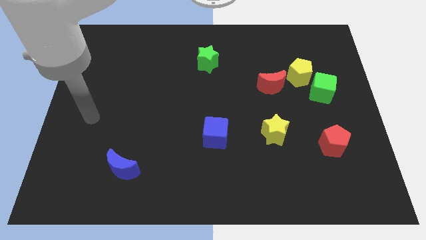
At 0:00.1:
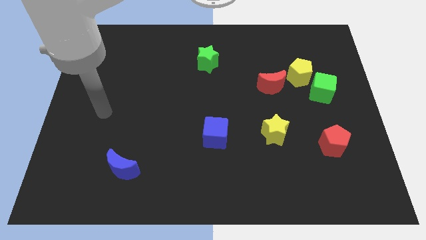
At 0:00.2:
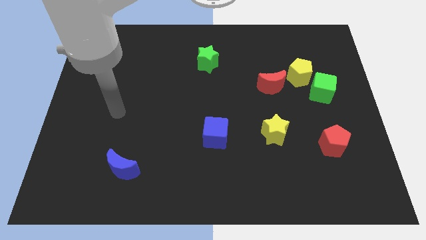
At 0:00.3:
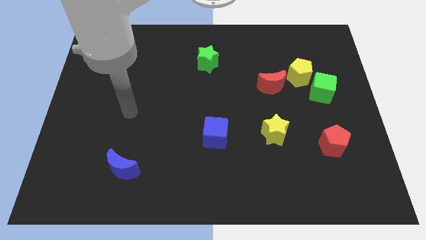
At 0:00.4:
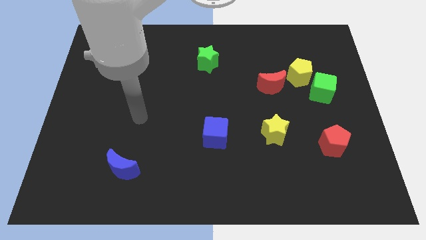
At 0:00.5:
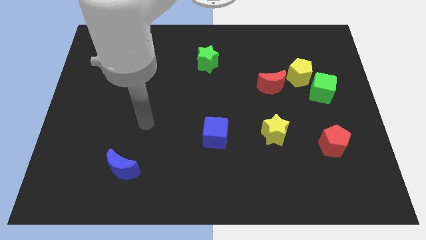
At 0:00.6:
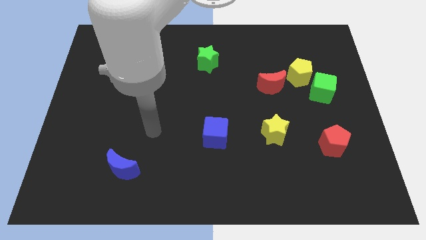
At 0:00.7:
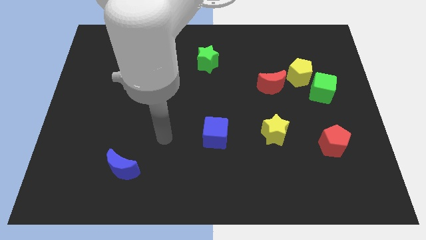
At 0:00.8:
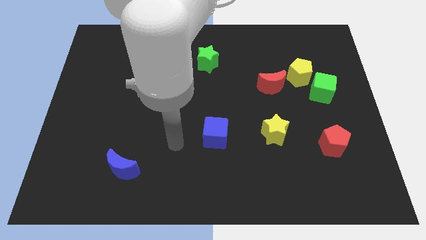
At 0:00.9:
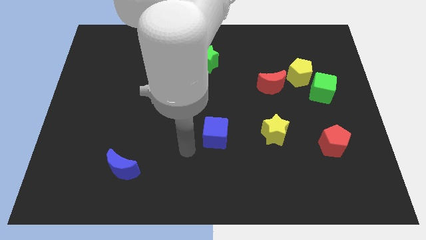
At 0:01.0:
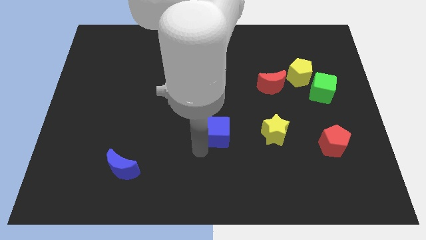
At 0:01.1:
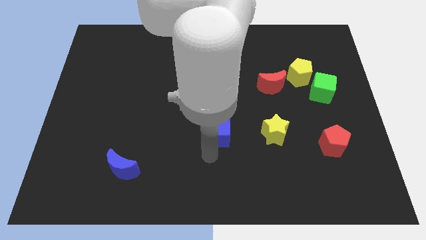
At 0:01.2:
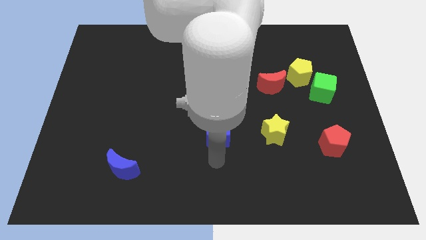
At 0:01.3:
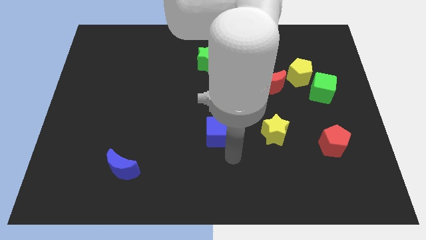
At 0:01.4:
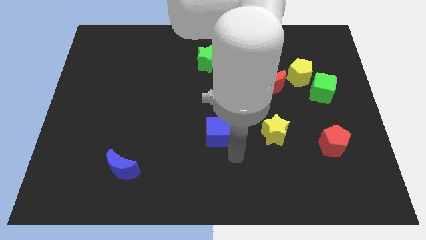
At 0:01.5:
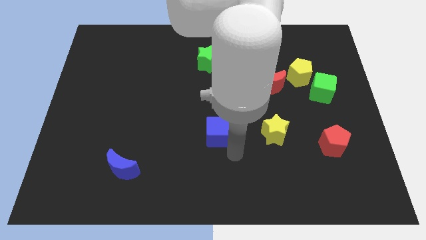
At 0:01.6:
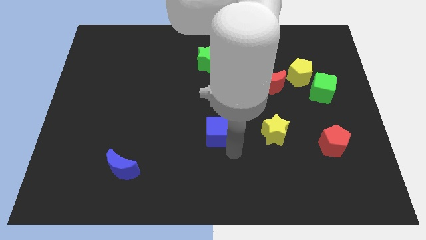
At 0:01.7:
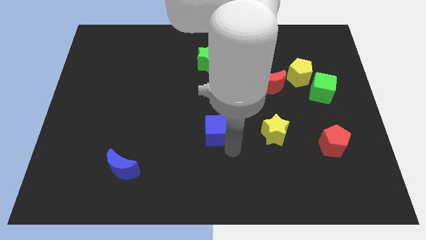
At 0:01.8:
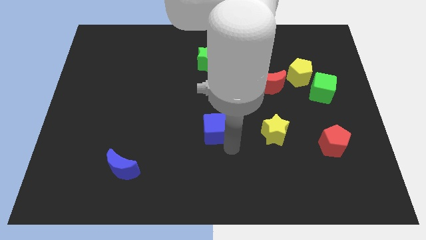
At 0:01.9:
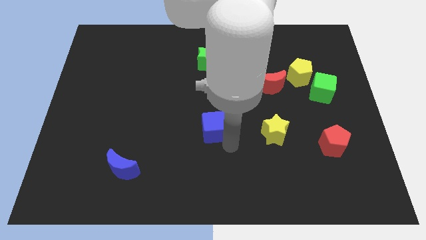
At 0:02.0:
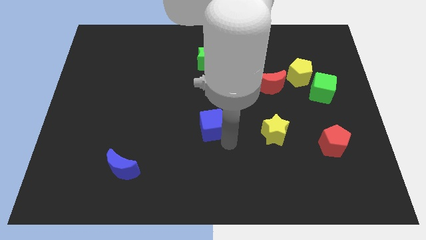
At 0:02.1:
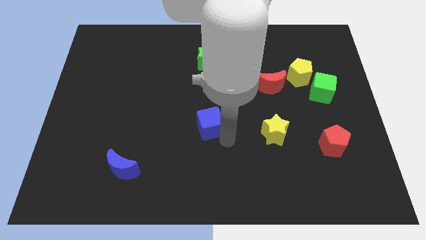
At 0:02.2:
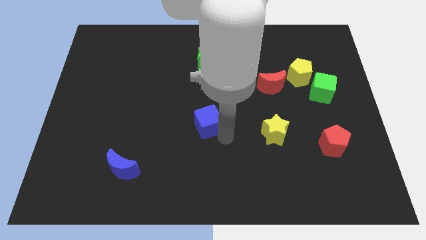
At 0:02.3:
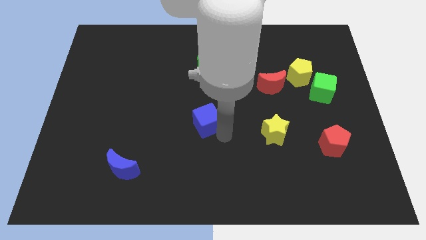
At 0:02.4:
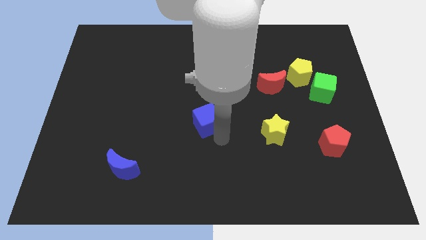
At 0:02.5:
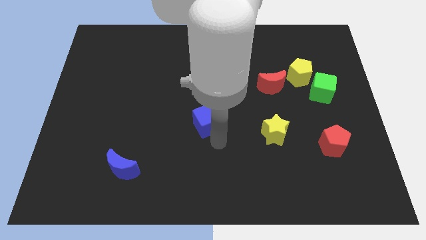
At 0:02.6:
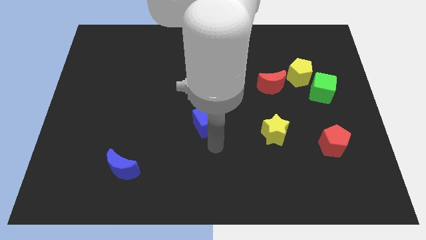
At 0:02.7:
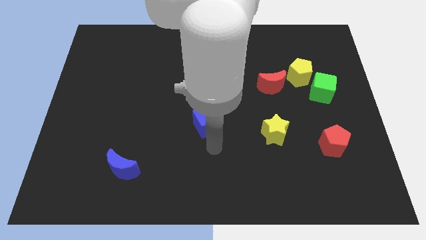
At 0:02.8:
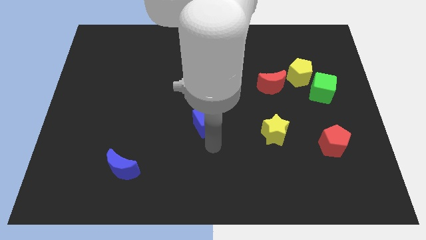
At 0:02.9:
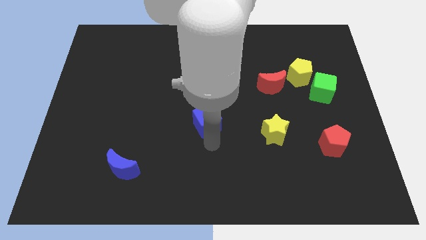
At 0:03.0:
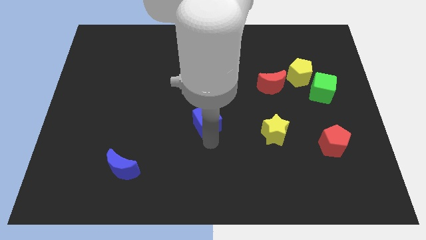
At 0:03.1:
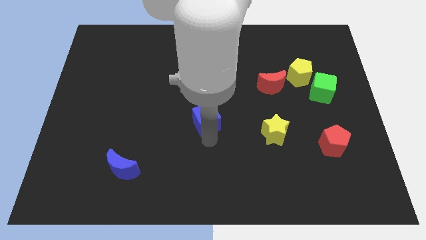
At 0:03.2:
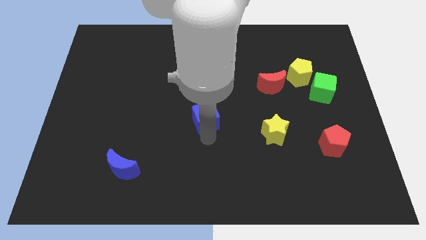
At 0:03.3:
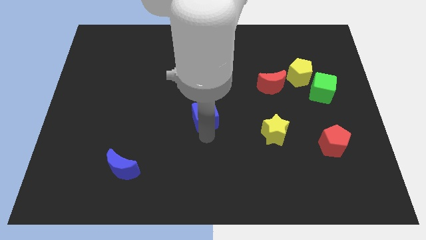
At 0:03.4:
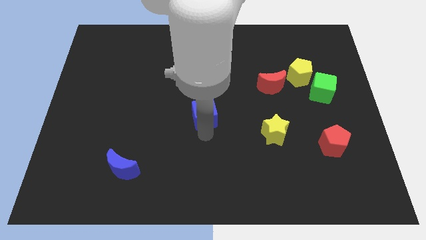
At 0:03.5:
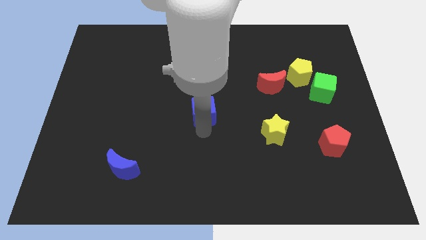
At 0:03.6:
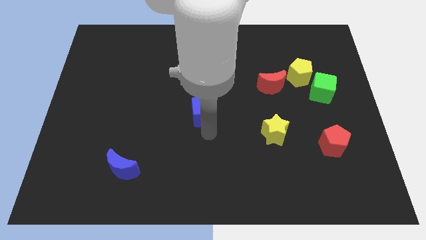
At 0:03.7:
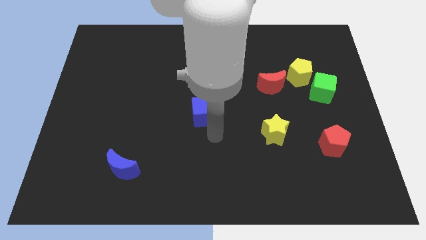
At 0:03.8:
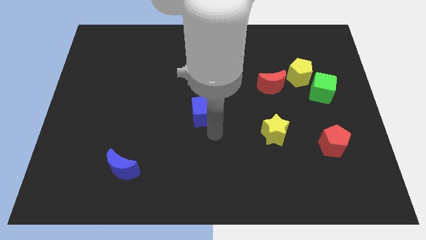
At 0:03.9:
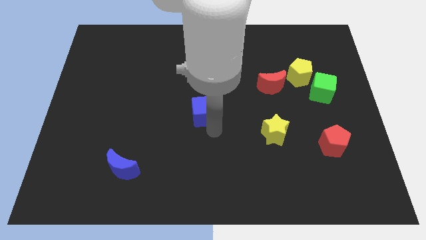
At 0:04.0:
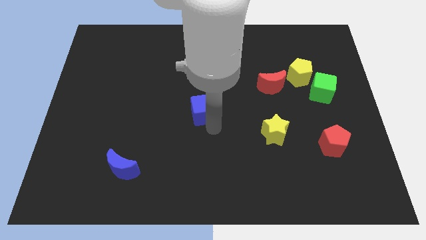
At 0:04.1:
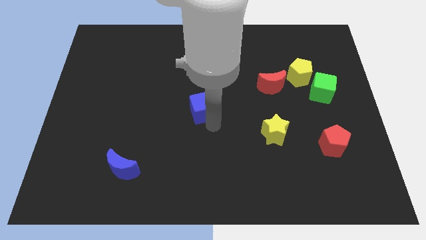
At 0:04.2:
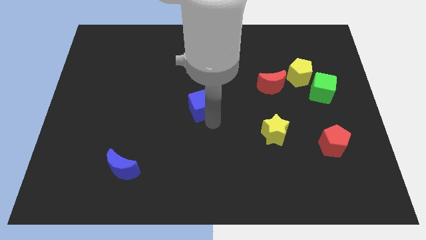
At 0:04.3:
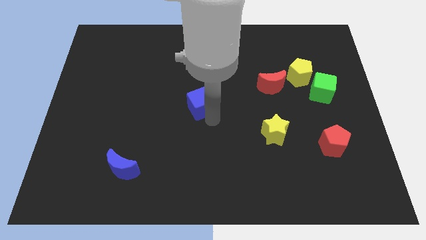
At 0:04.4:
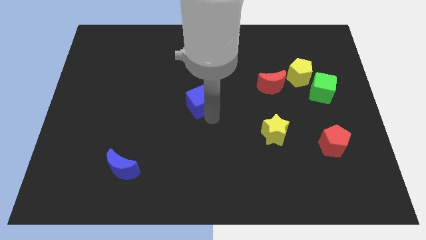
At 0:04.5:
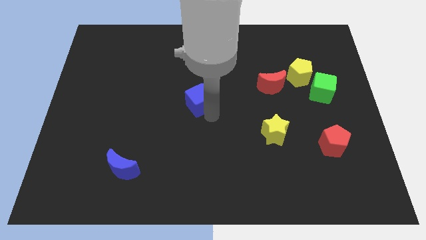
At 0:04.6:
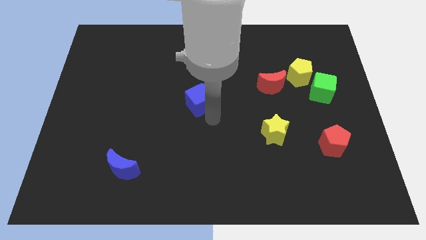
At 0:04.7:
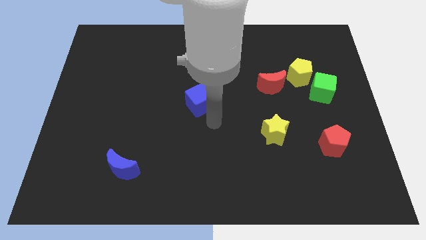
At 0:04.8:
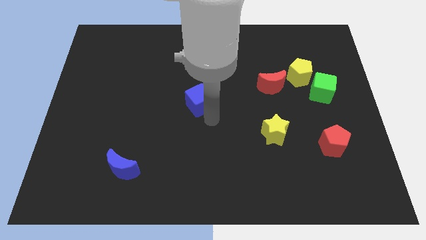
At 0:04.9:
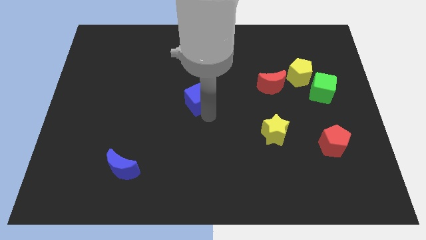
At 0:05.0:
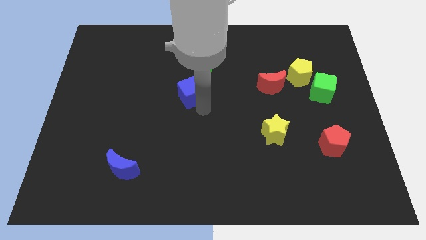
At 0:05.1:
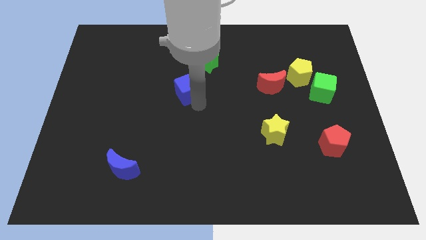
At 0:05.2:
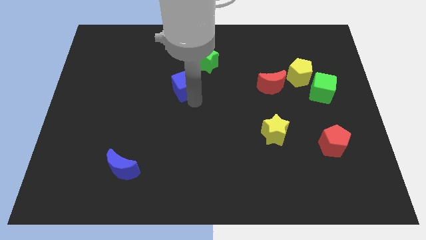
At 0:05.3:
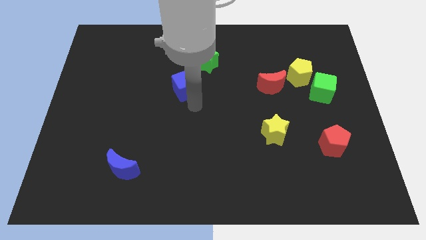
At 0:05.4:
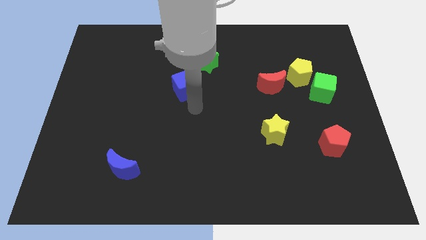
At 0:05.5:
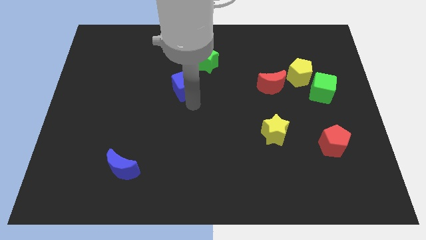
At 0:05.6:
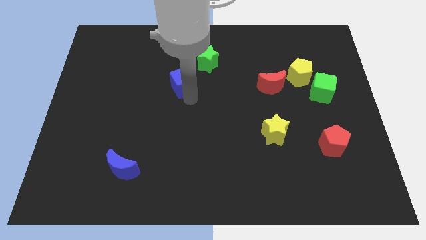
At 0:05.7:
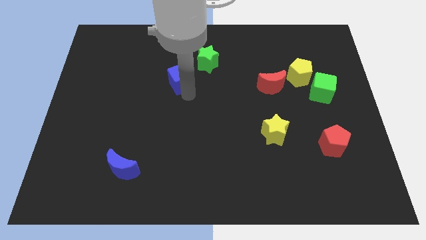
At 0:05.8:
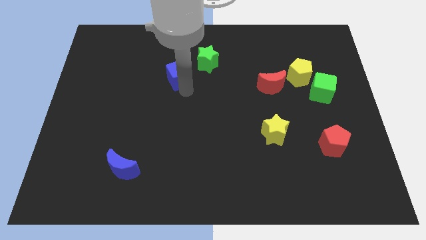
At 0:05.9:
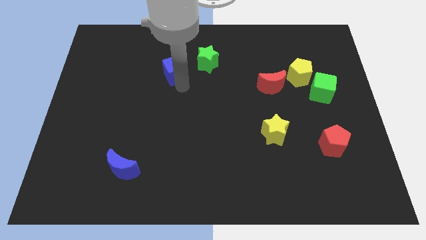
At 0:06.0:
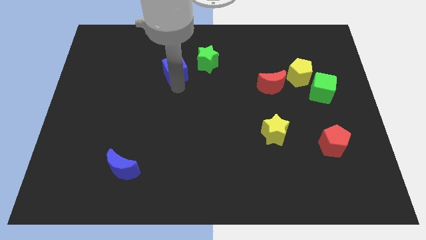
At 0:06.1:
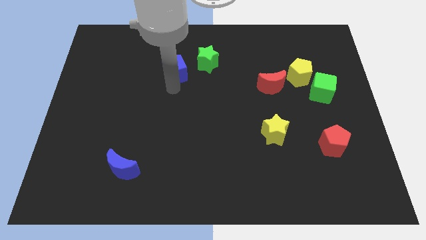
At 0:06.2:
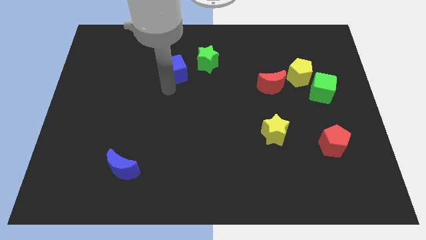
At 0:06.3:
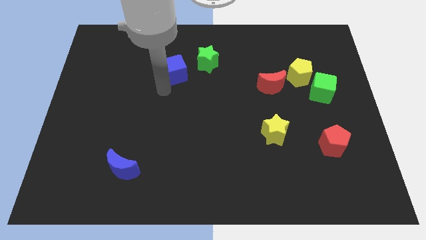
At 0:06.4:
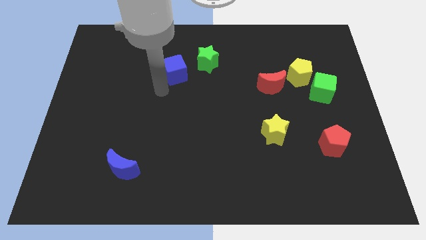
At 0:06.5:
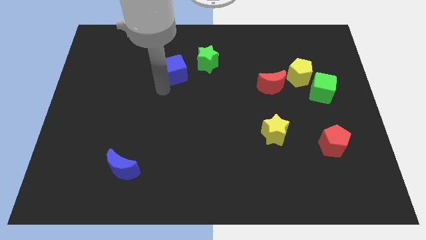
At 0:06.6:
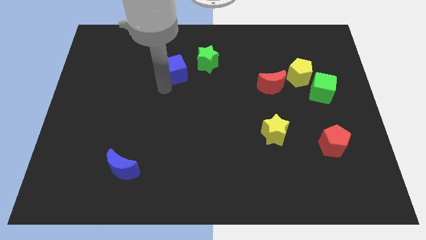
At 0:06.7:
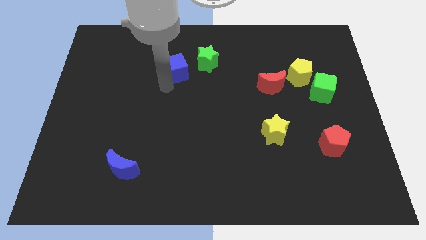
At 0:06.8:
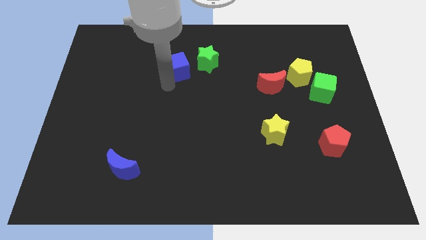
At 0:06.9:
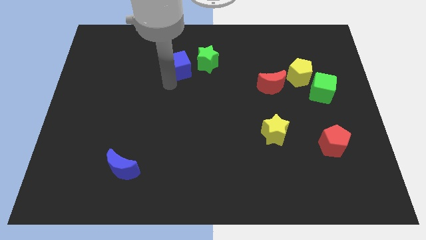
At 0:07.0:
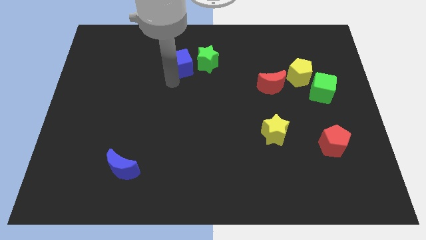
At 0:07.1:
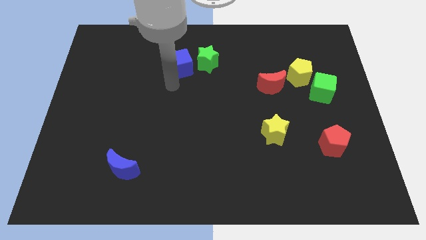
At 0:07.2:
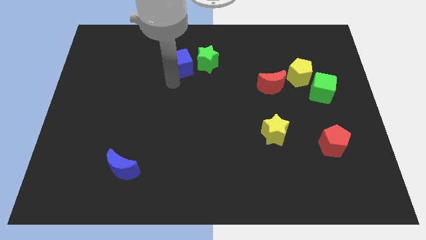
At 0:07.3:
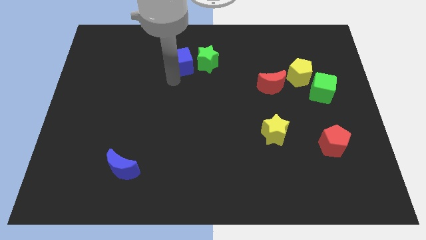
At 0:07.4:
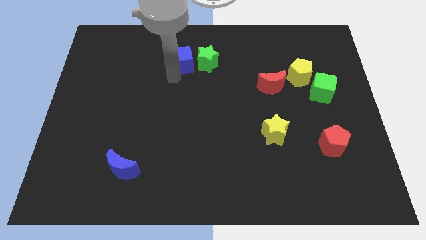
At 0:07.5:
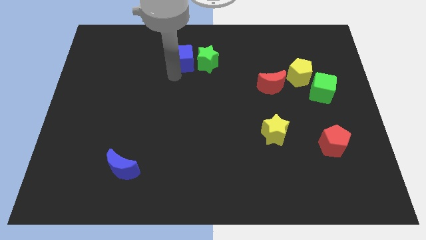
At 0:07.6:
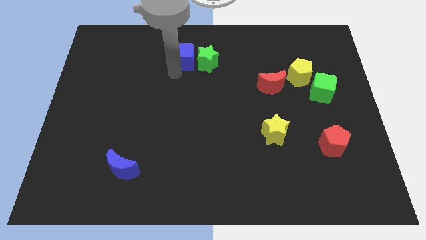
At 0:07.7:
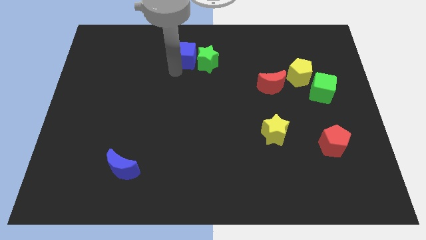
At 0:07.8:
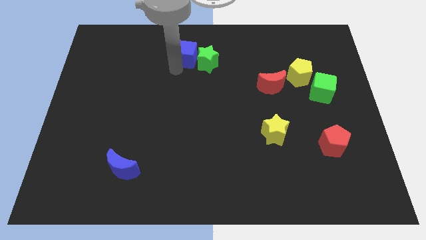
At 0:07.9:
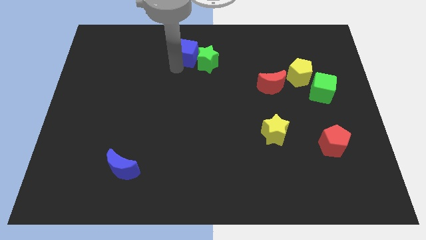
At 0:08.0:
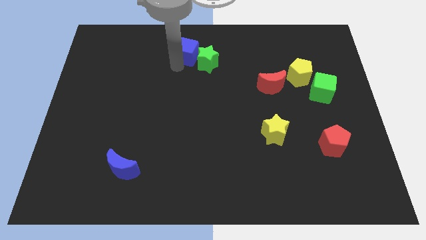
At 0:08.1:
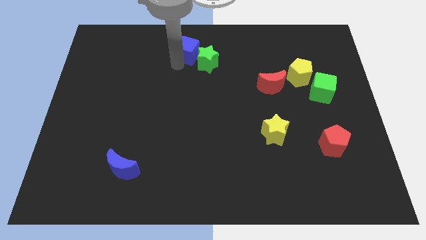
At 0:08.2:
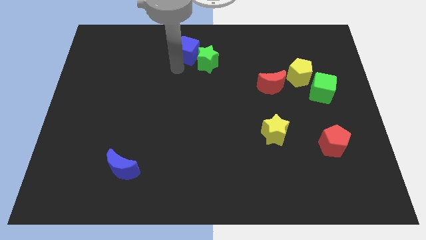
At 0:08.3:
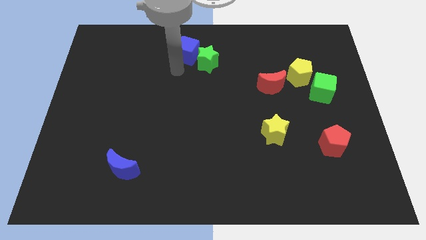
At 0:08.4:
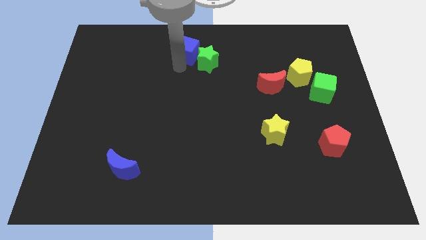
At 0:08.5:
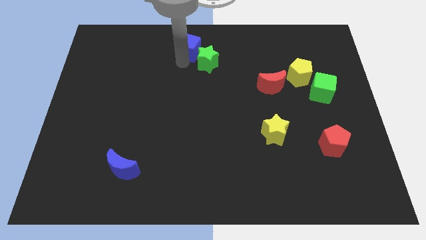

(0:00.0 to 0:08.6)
slide the blue cube to the towards your base
